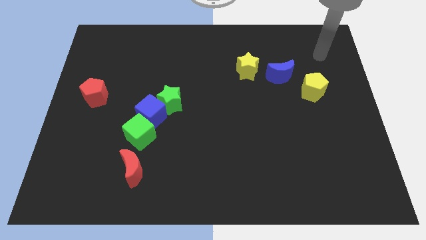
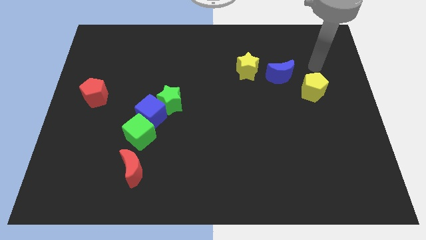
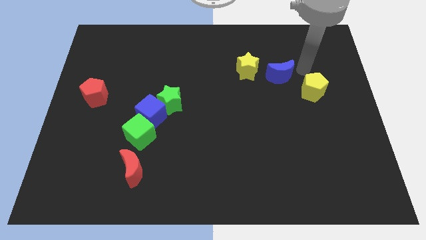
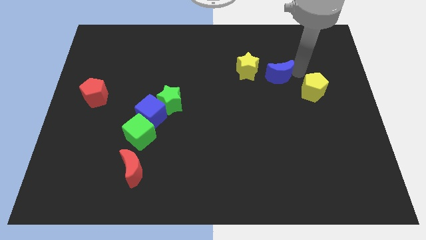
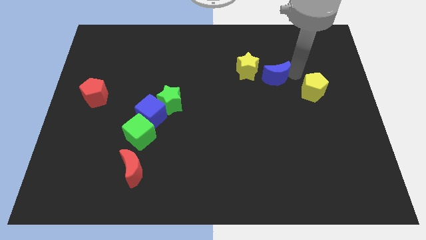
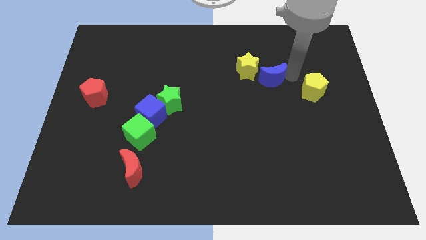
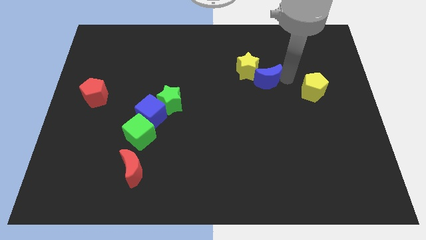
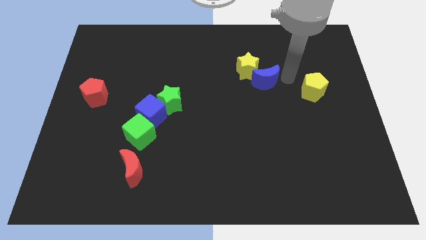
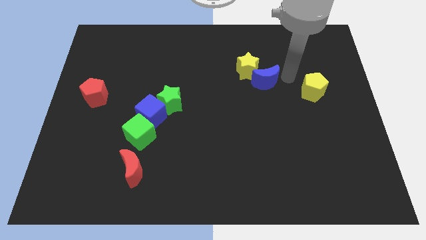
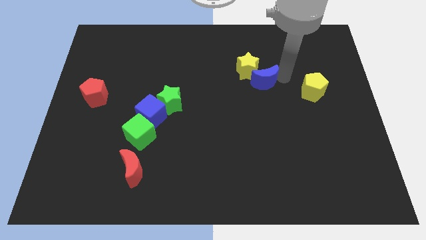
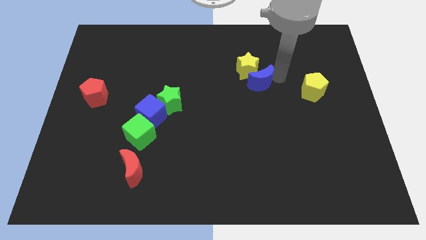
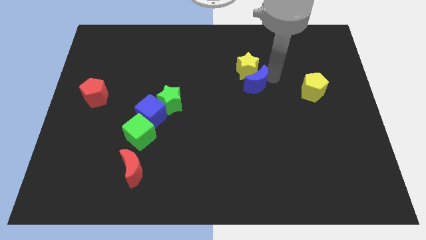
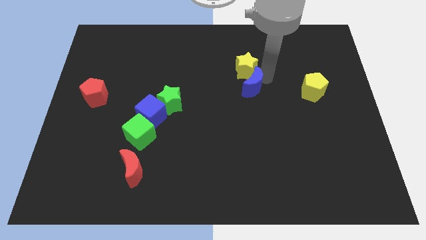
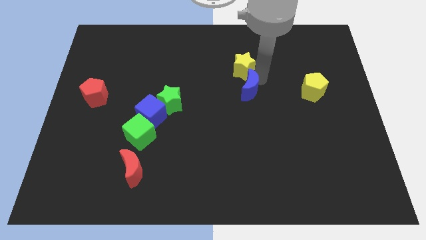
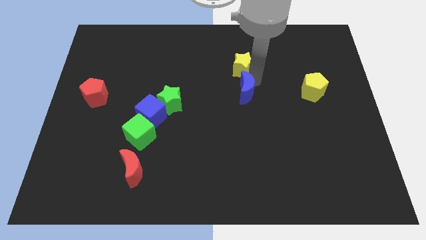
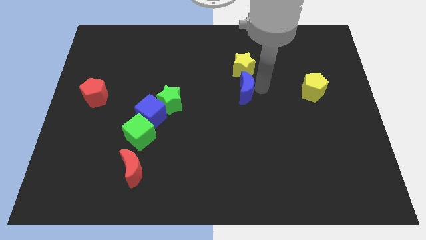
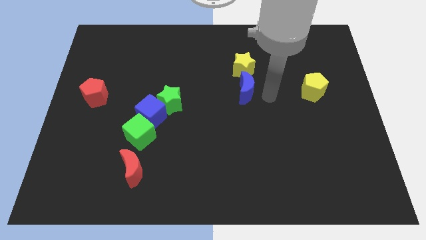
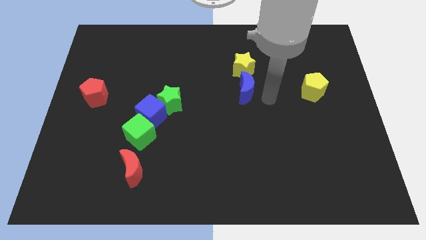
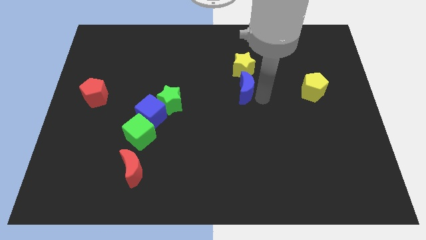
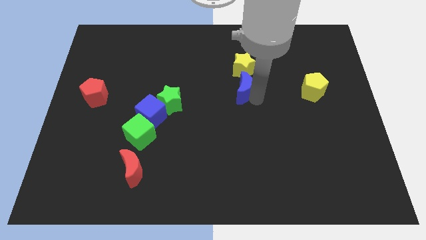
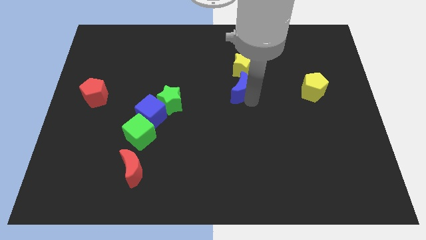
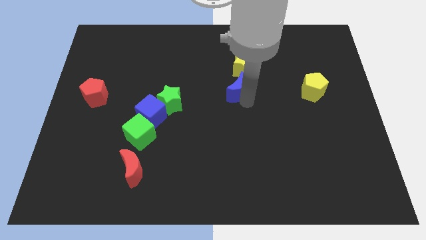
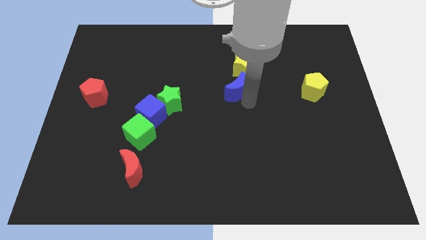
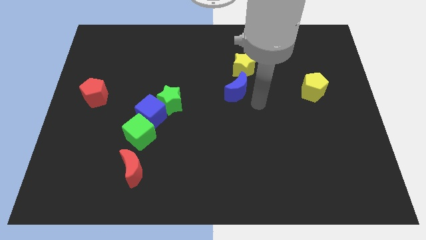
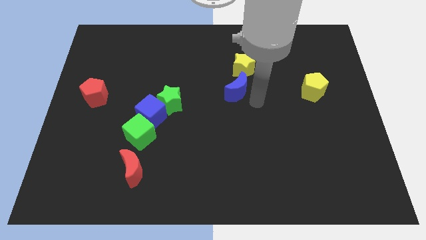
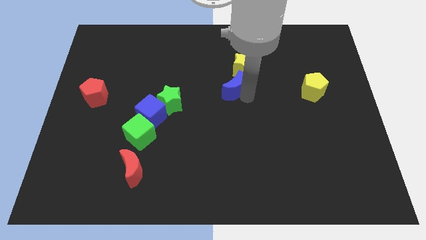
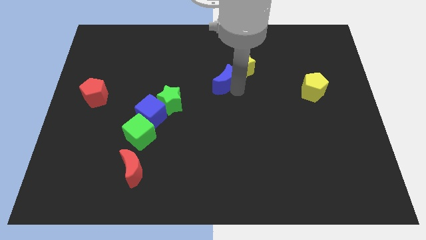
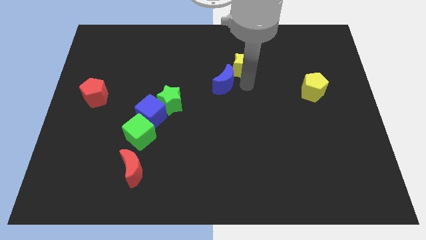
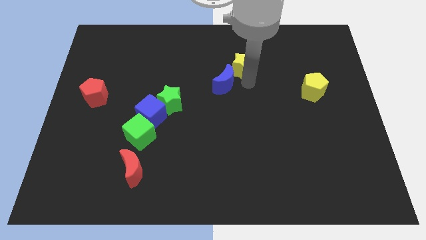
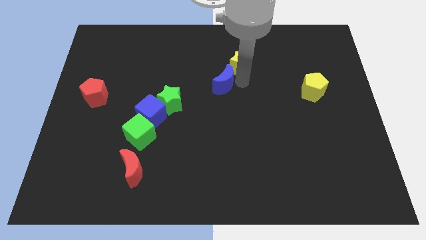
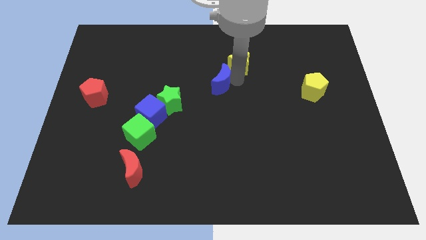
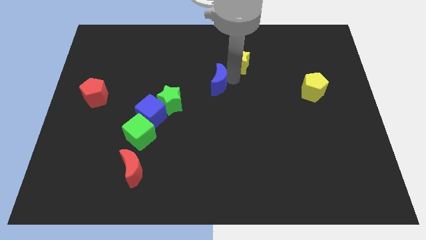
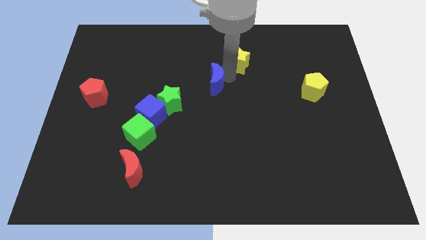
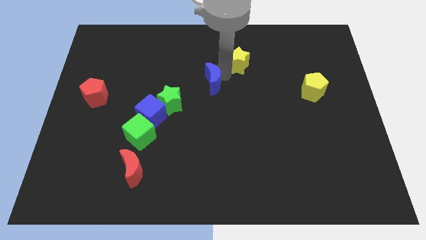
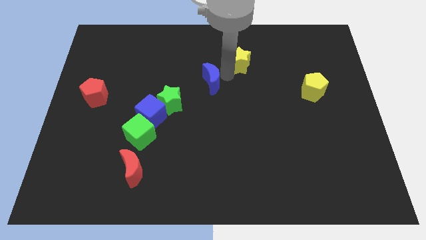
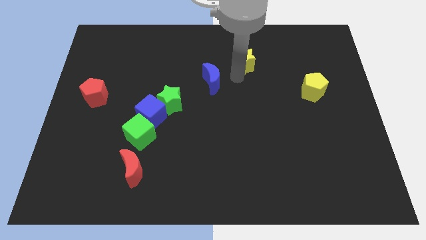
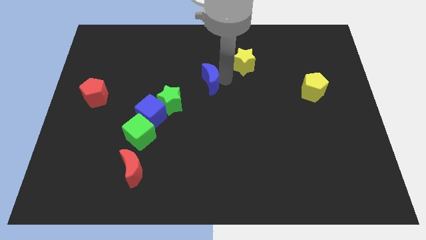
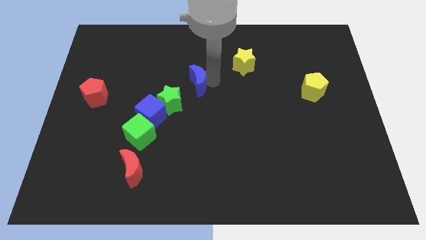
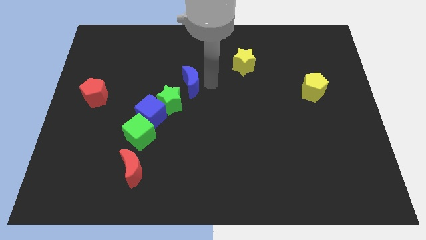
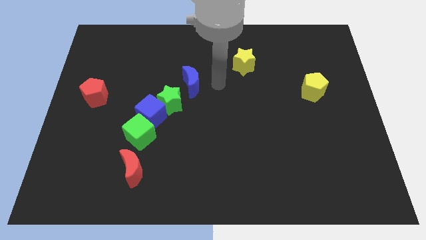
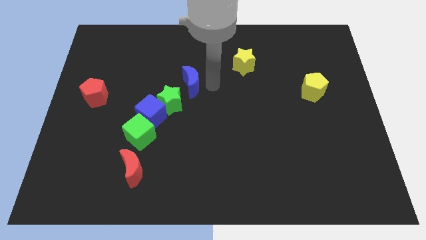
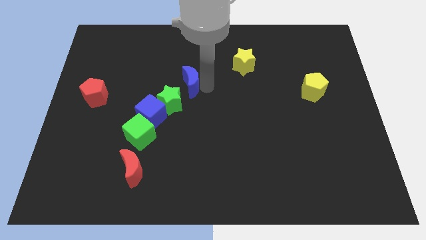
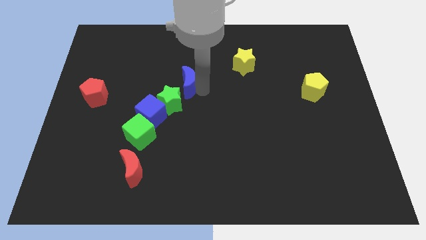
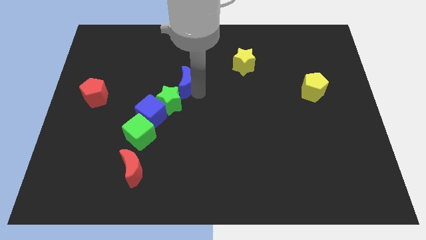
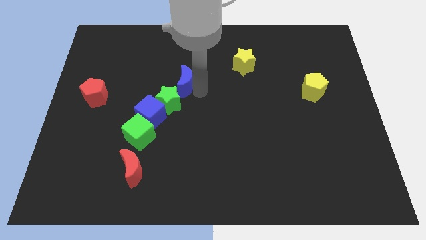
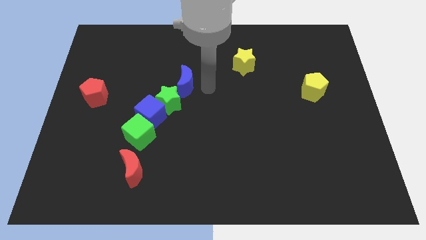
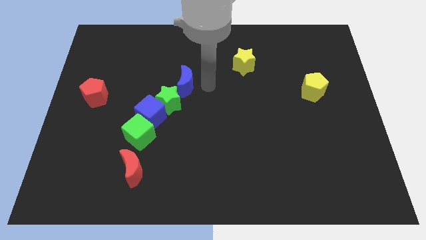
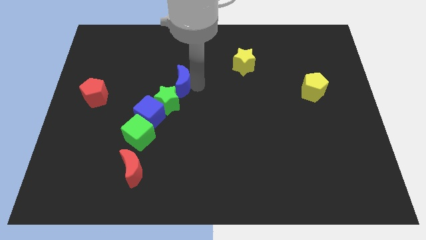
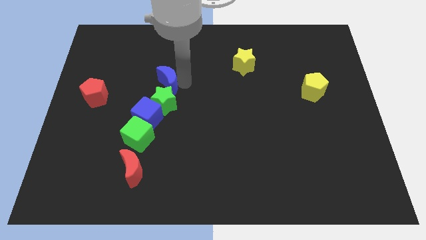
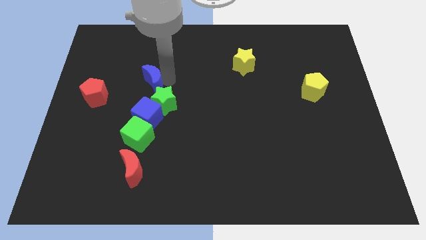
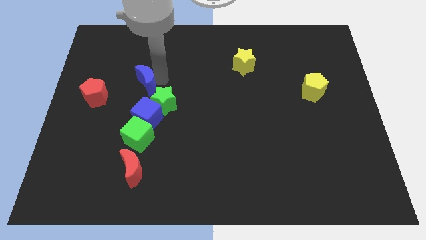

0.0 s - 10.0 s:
move the blue moon to the right side of the red pentagon
